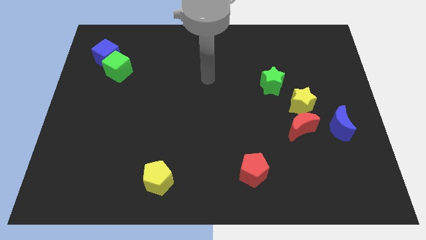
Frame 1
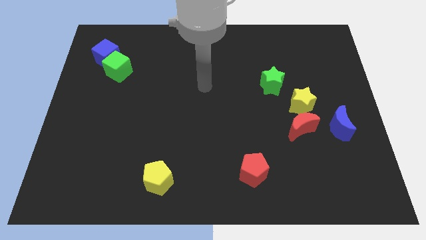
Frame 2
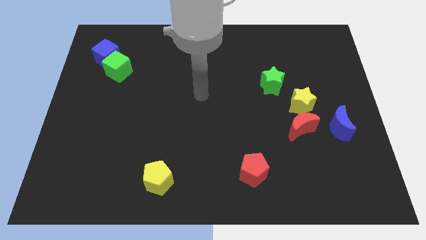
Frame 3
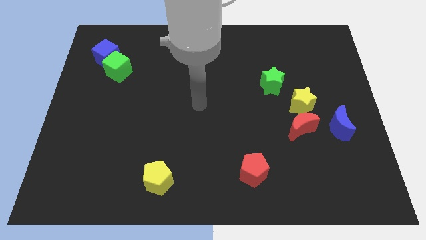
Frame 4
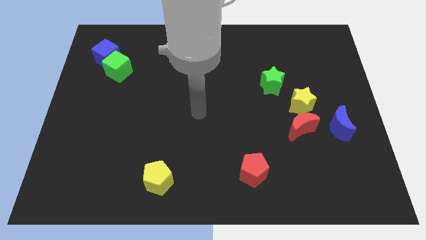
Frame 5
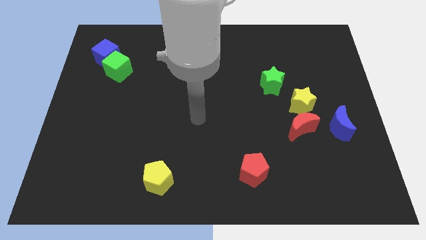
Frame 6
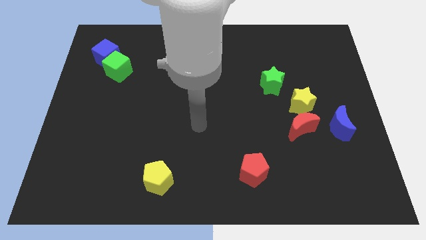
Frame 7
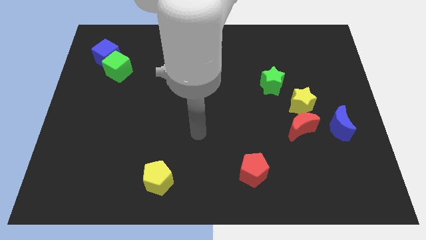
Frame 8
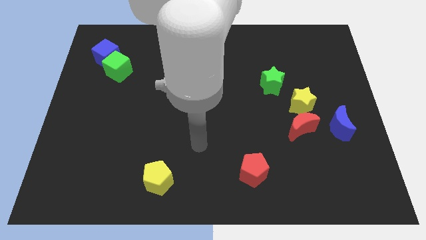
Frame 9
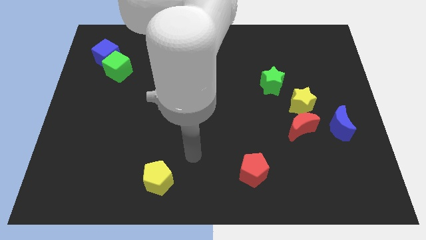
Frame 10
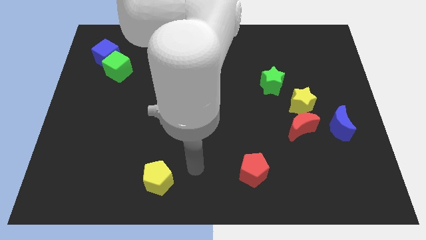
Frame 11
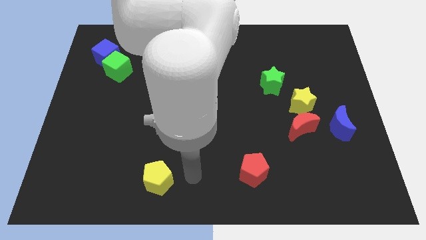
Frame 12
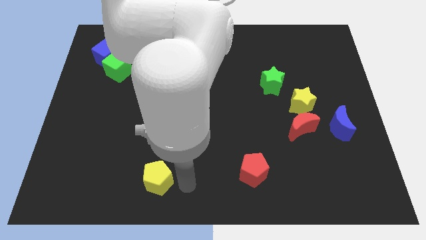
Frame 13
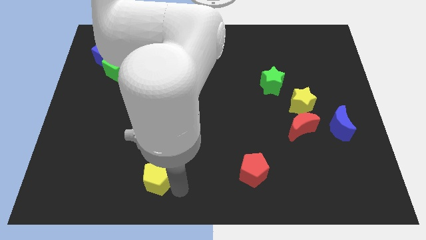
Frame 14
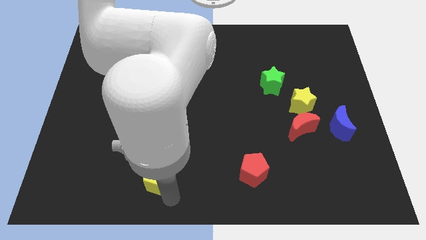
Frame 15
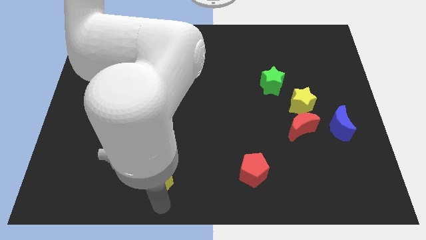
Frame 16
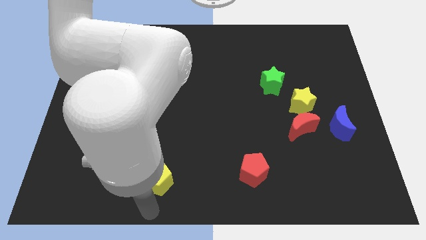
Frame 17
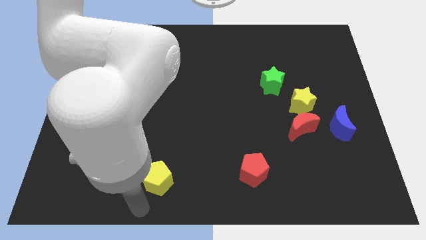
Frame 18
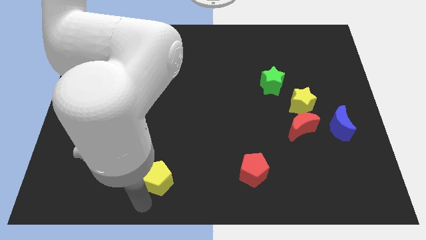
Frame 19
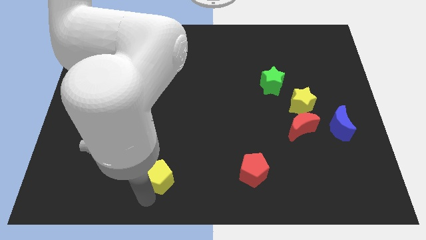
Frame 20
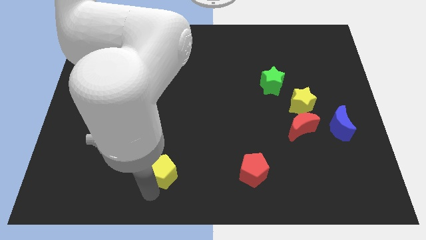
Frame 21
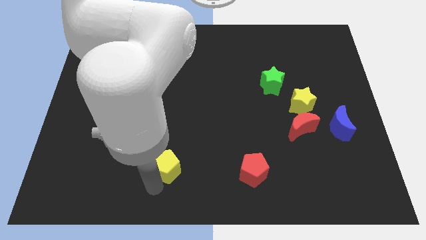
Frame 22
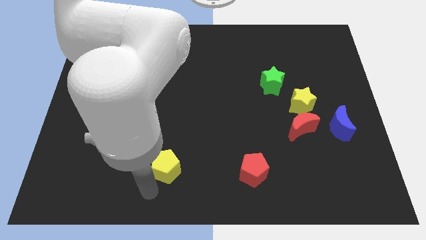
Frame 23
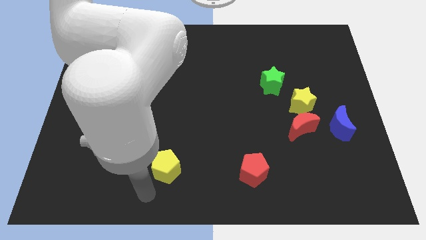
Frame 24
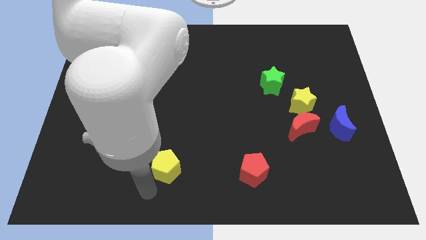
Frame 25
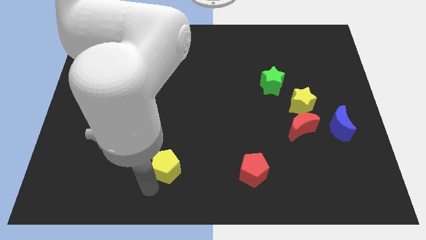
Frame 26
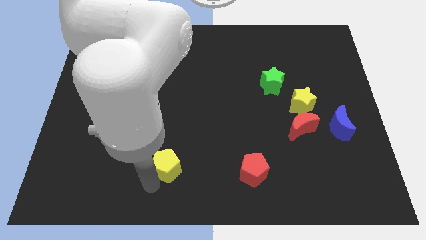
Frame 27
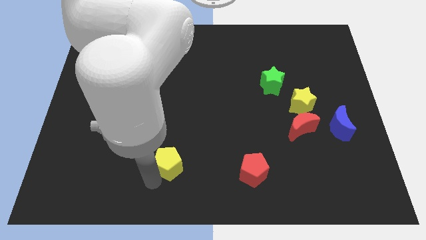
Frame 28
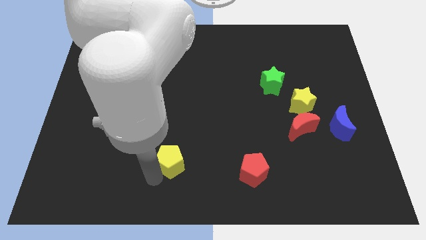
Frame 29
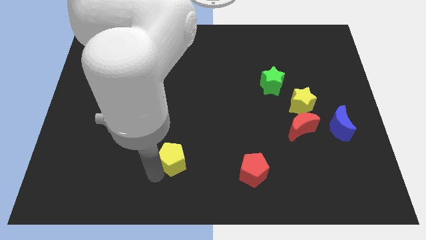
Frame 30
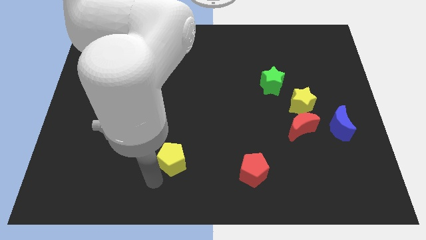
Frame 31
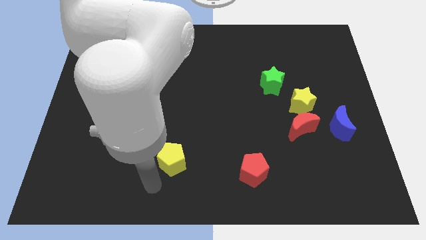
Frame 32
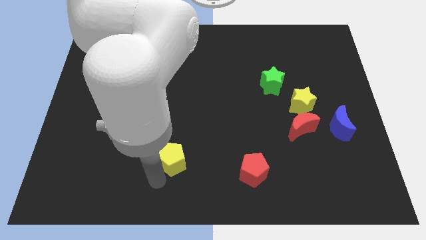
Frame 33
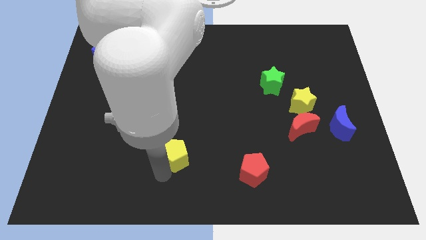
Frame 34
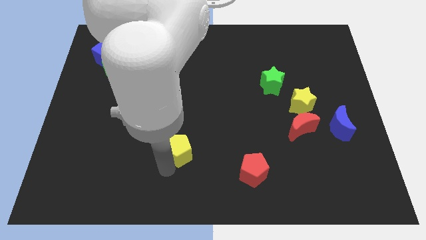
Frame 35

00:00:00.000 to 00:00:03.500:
push the yellow pentagon a bit up and to the right diagonally

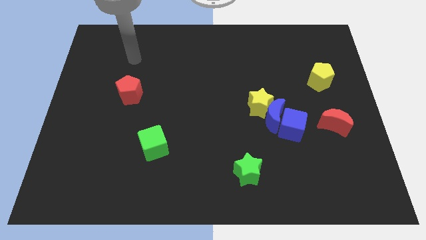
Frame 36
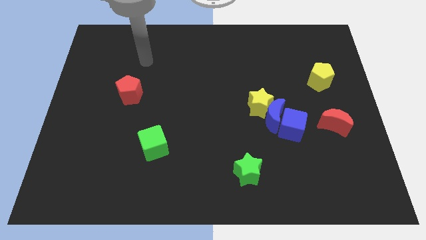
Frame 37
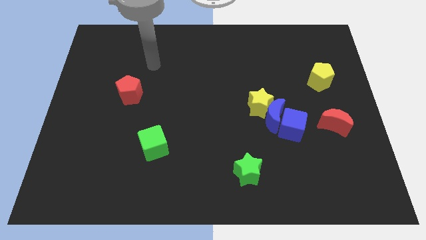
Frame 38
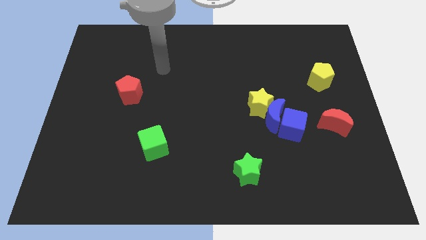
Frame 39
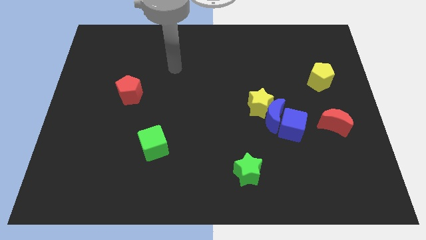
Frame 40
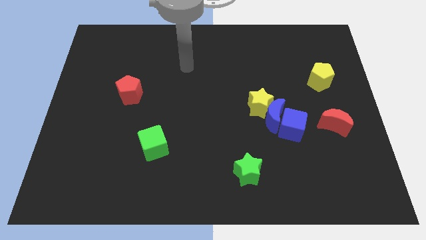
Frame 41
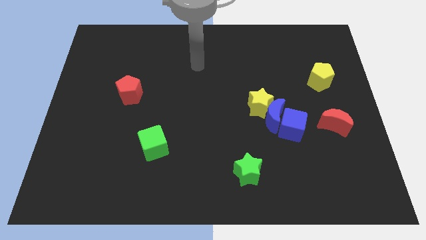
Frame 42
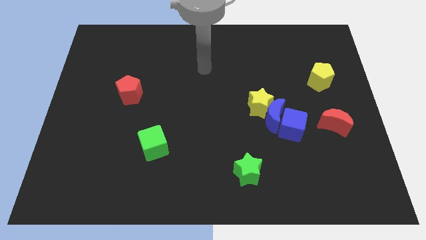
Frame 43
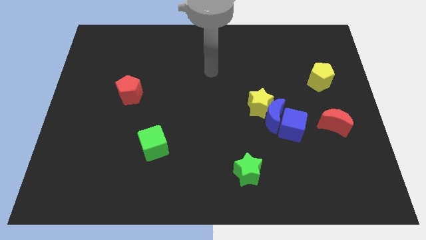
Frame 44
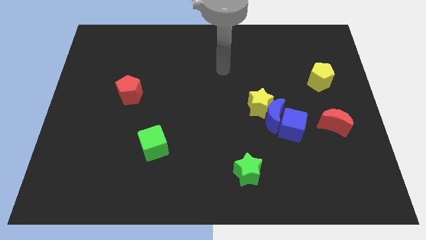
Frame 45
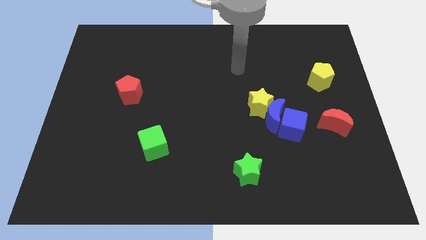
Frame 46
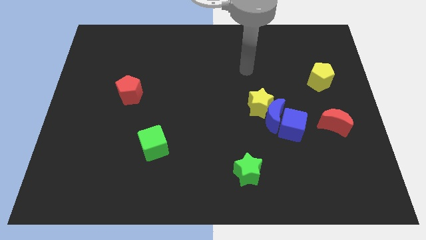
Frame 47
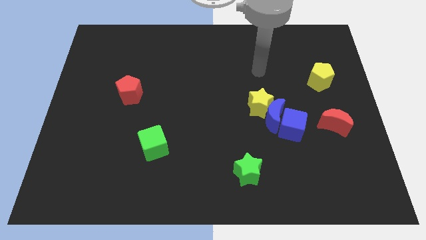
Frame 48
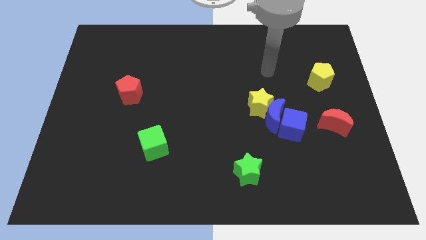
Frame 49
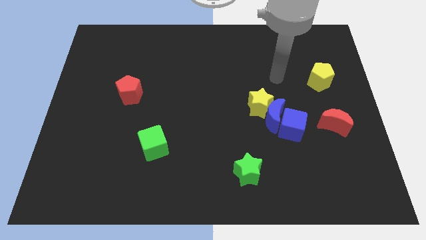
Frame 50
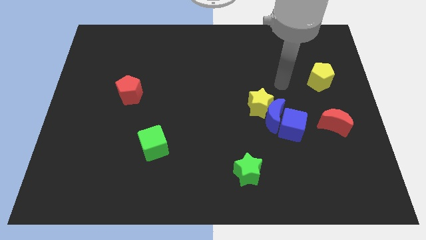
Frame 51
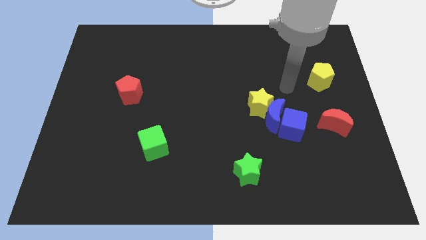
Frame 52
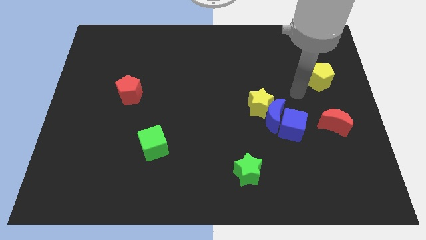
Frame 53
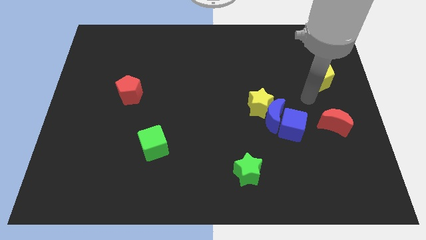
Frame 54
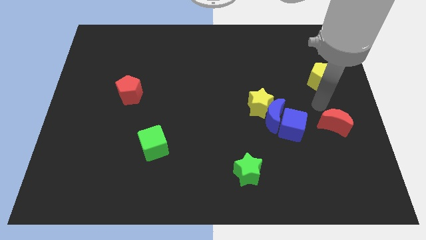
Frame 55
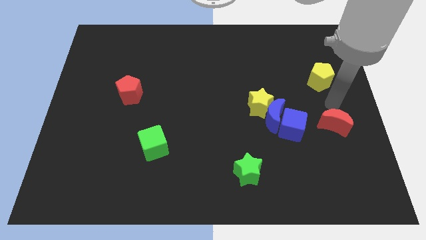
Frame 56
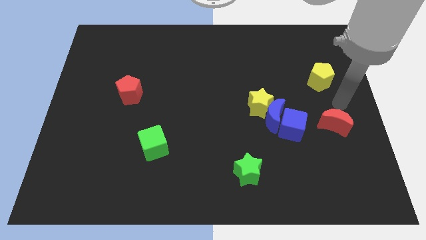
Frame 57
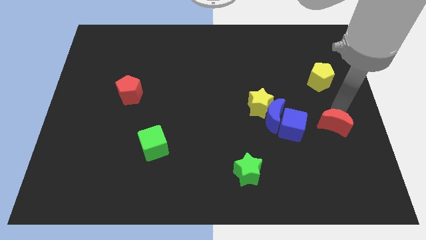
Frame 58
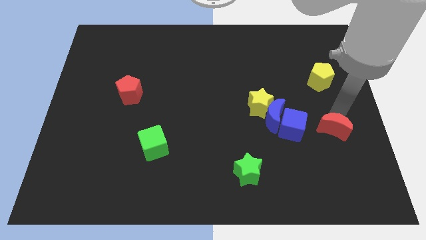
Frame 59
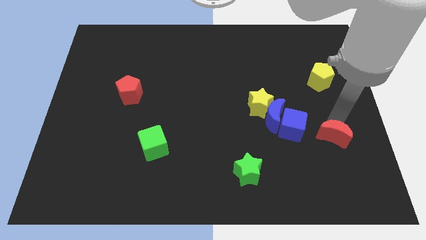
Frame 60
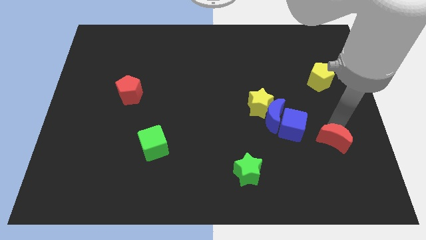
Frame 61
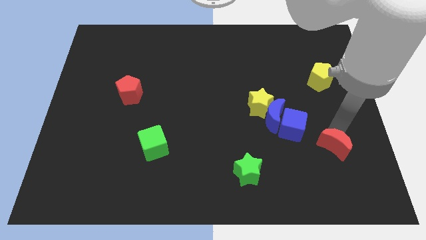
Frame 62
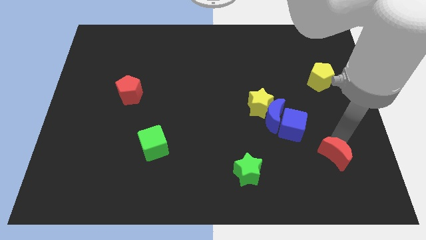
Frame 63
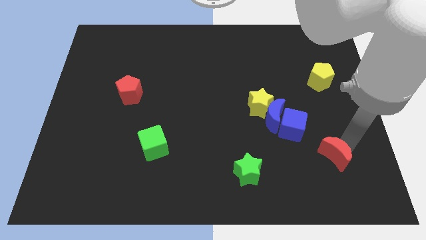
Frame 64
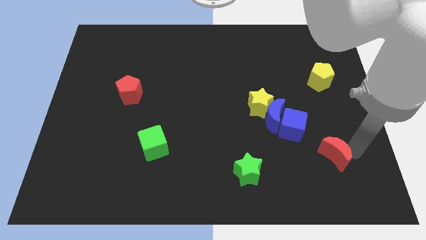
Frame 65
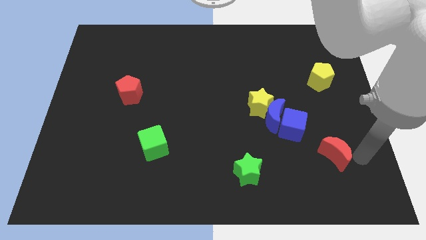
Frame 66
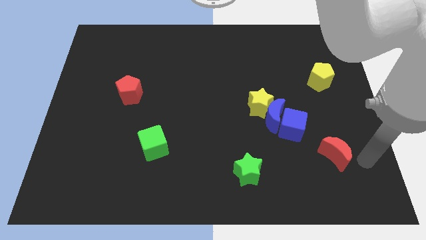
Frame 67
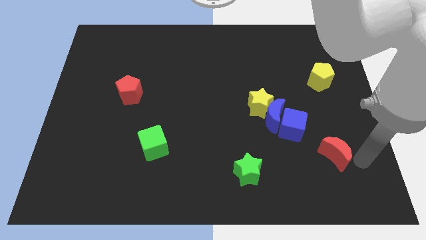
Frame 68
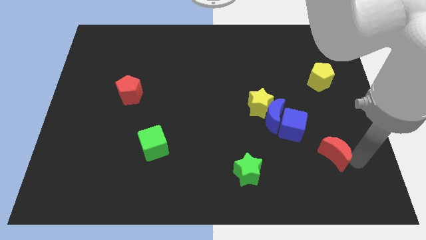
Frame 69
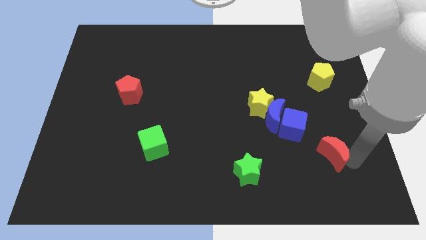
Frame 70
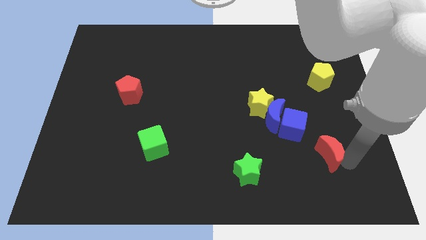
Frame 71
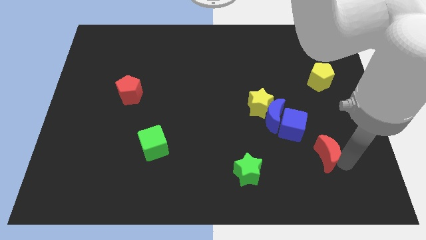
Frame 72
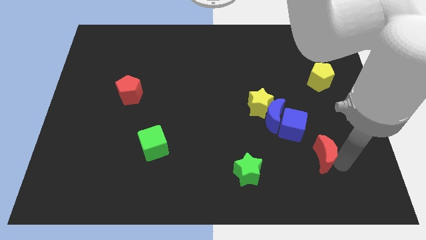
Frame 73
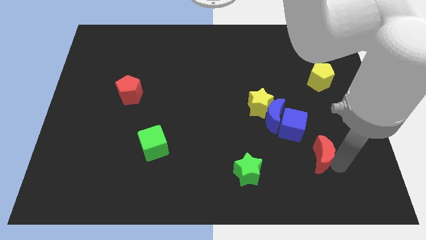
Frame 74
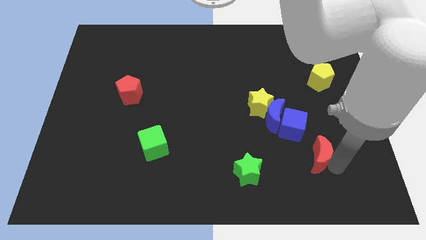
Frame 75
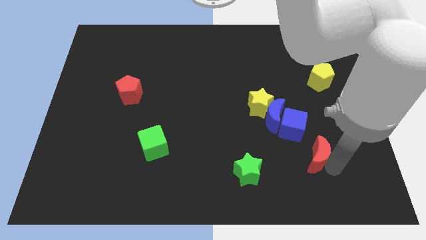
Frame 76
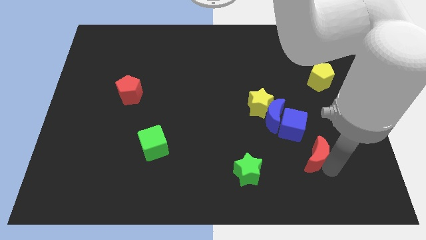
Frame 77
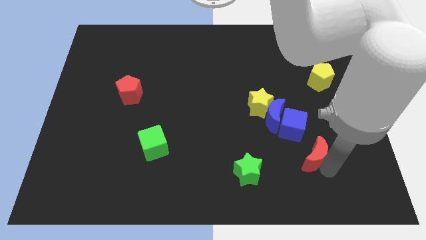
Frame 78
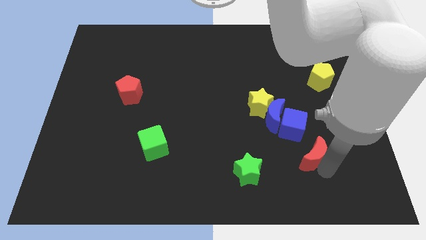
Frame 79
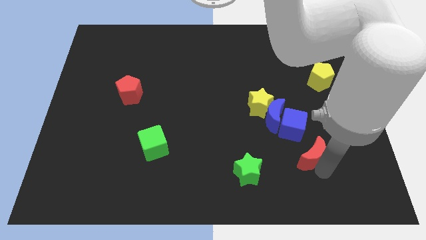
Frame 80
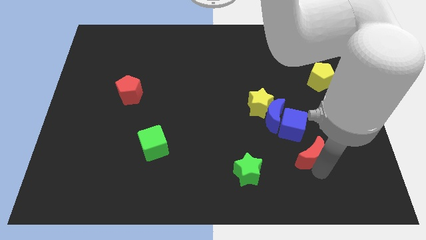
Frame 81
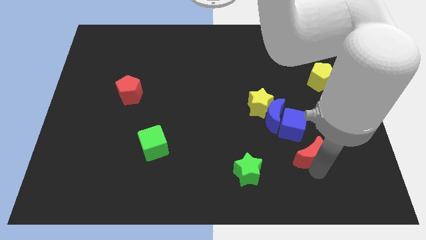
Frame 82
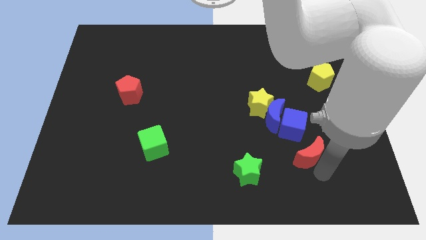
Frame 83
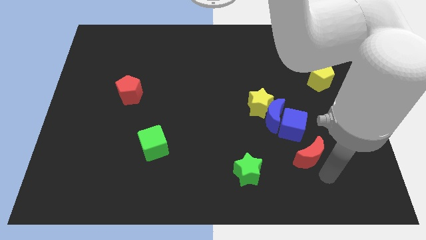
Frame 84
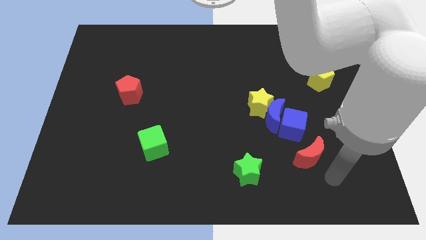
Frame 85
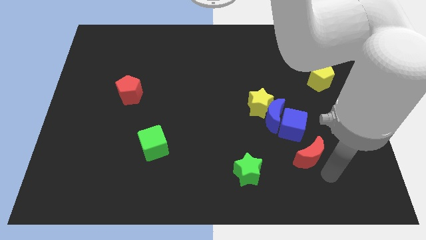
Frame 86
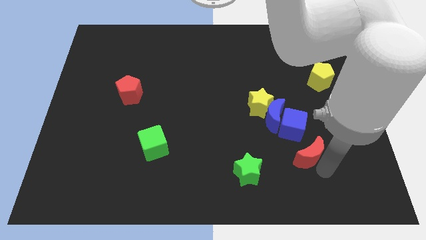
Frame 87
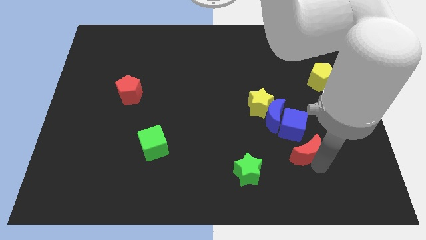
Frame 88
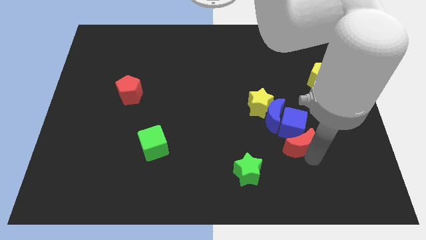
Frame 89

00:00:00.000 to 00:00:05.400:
move the red moon left a bit
